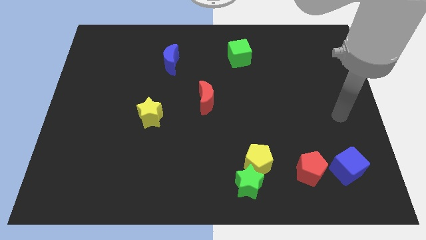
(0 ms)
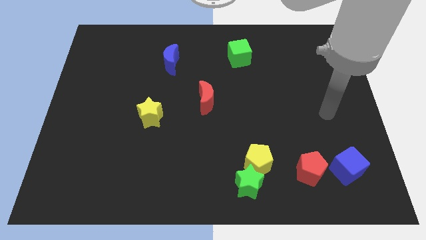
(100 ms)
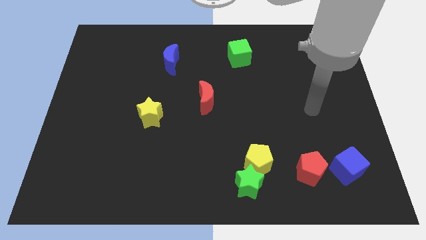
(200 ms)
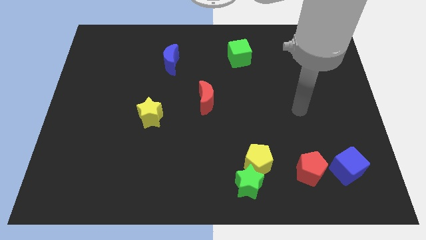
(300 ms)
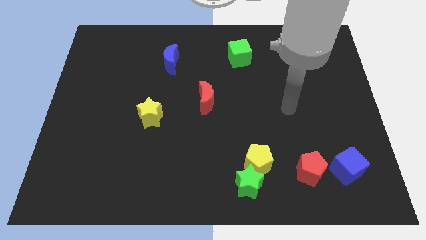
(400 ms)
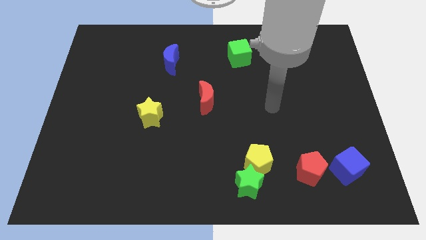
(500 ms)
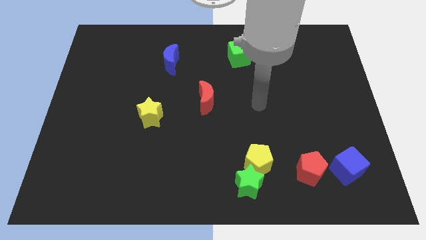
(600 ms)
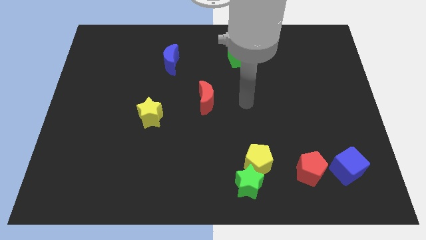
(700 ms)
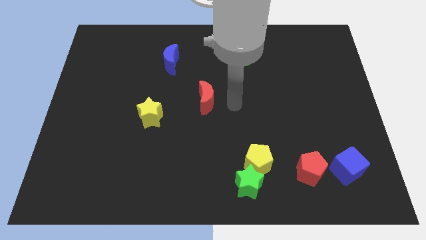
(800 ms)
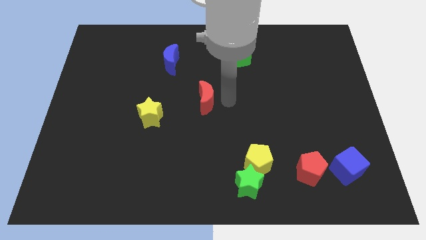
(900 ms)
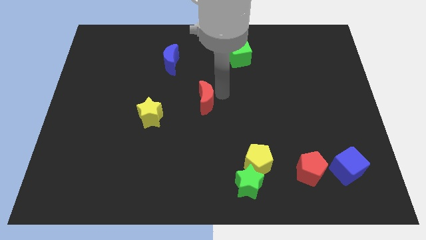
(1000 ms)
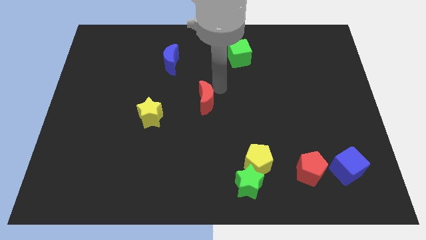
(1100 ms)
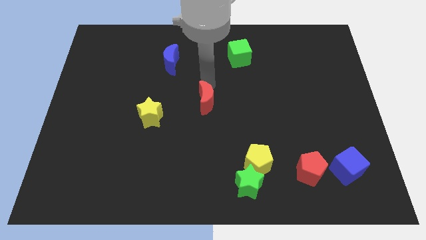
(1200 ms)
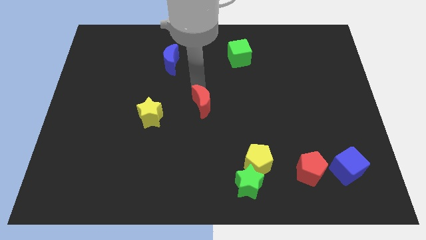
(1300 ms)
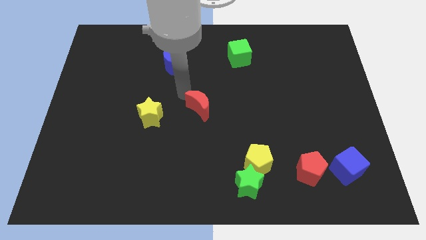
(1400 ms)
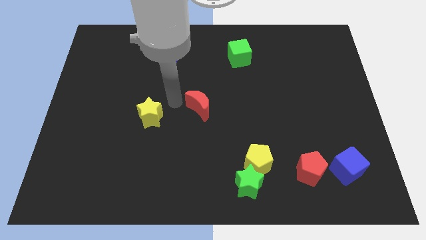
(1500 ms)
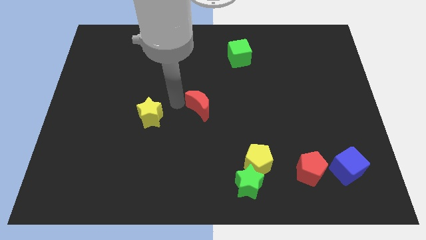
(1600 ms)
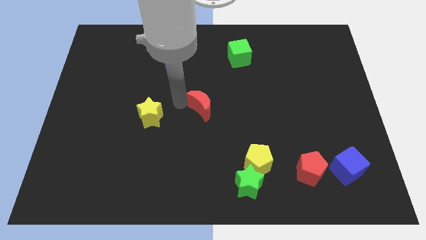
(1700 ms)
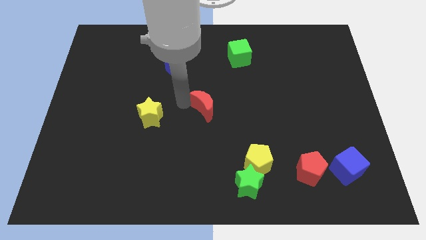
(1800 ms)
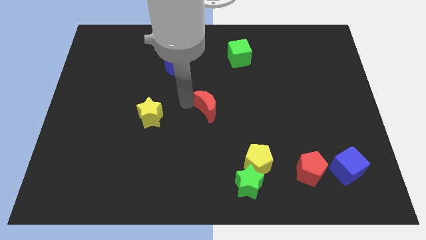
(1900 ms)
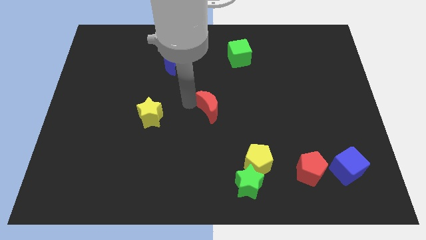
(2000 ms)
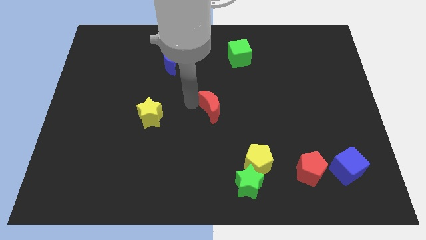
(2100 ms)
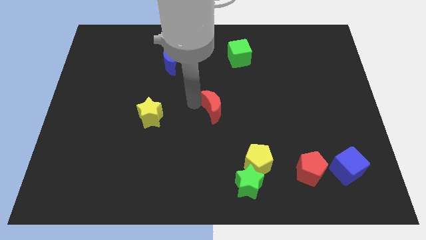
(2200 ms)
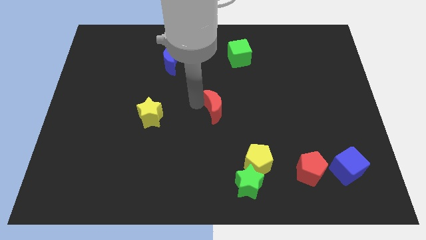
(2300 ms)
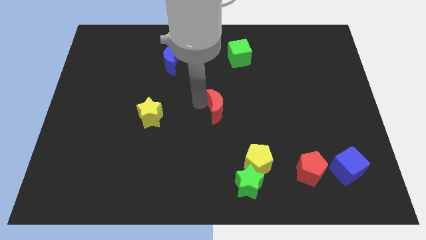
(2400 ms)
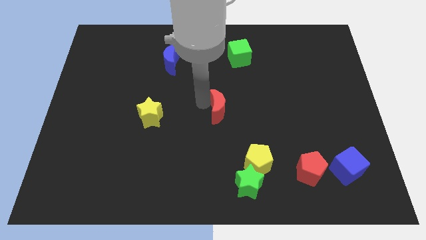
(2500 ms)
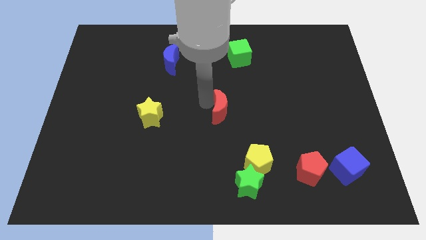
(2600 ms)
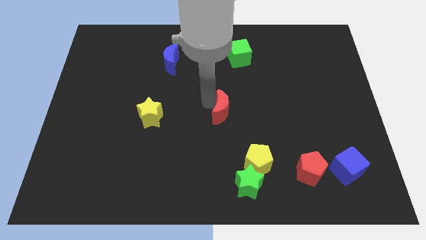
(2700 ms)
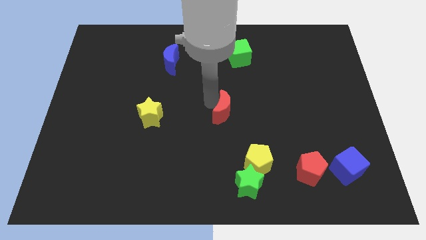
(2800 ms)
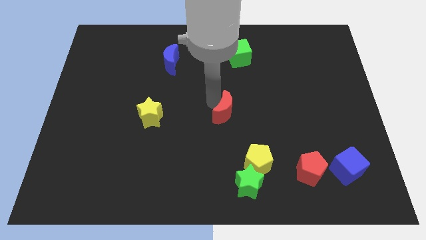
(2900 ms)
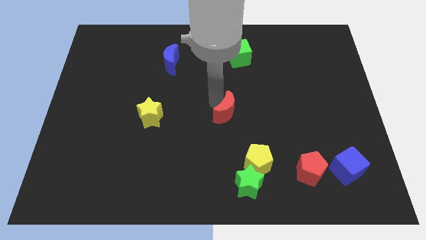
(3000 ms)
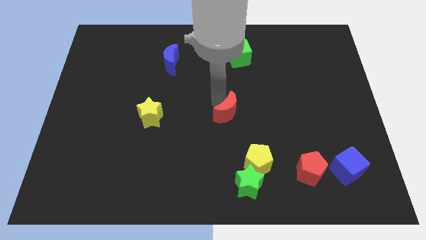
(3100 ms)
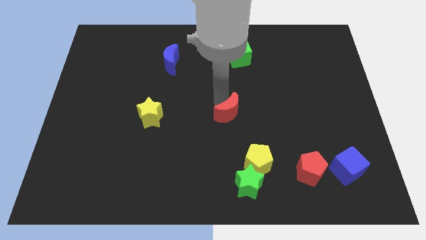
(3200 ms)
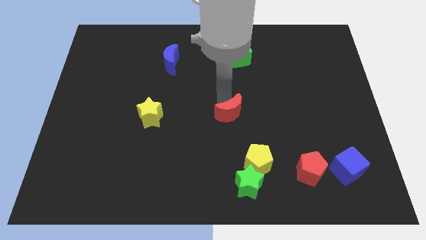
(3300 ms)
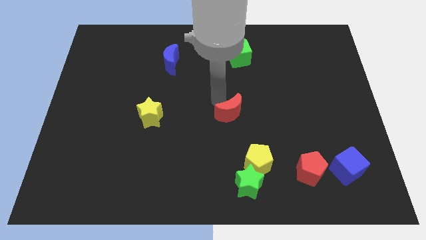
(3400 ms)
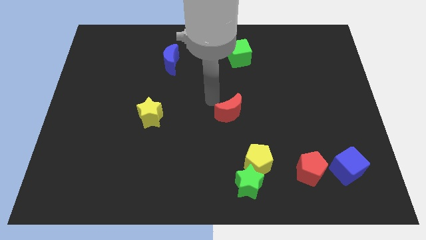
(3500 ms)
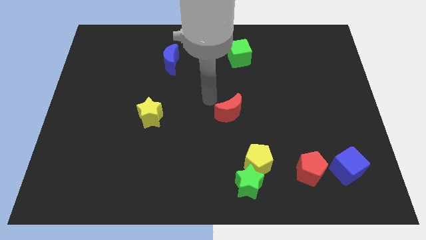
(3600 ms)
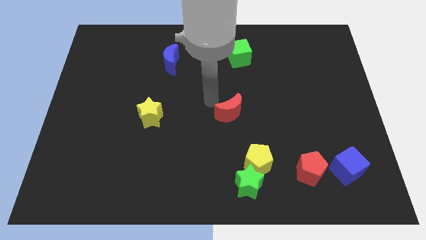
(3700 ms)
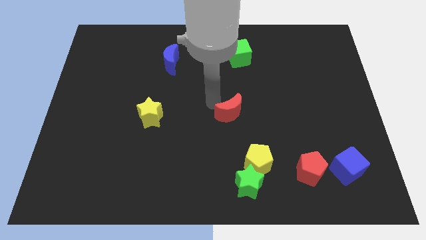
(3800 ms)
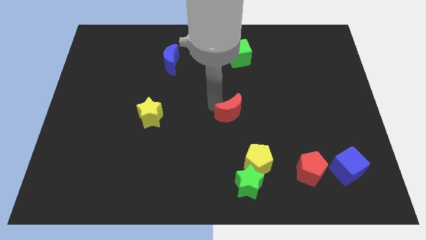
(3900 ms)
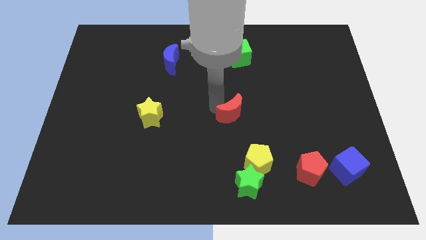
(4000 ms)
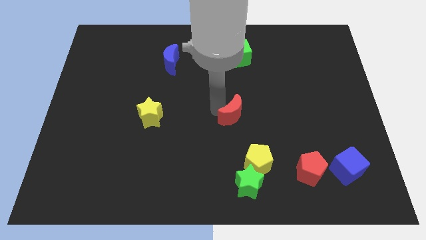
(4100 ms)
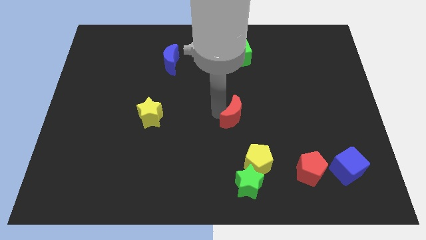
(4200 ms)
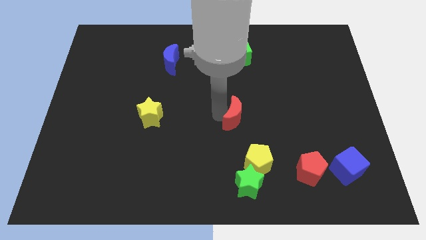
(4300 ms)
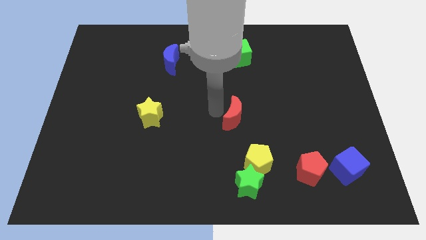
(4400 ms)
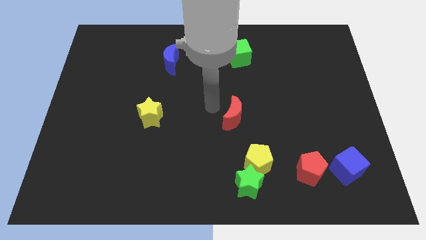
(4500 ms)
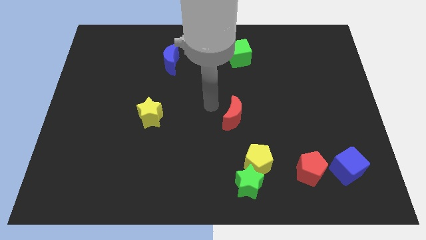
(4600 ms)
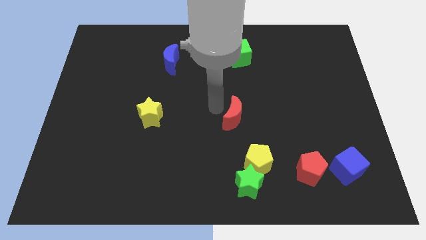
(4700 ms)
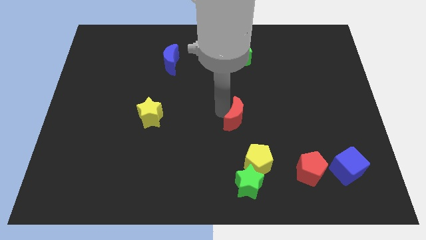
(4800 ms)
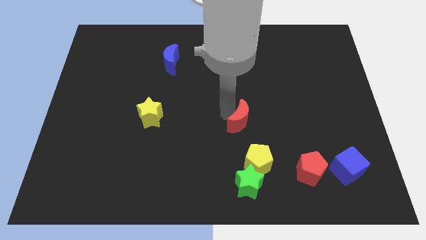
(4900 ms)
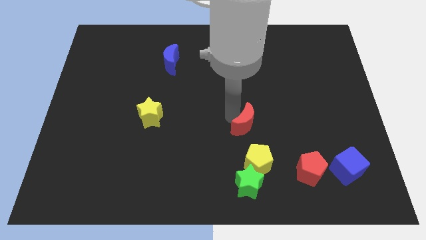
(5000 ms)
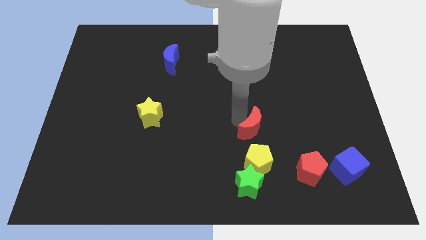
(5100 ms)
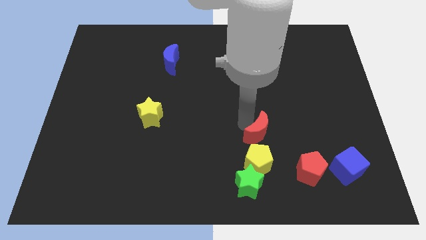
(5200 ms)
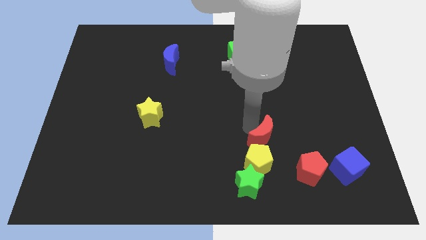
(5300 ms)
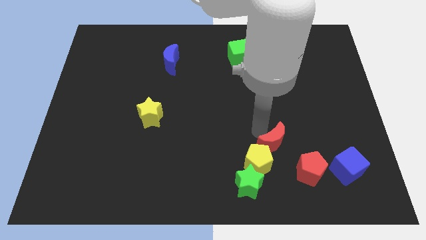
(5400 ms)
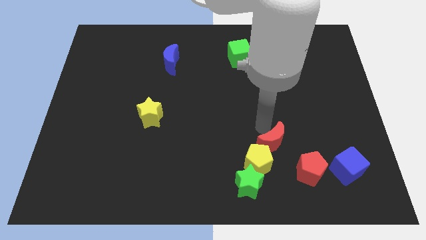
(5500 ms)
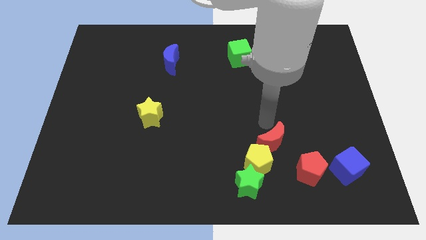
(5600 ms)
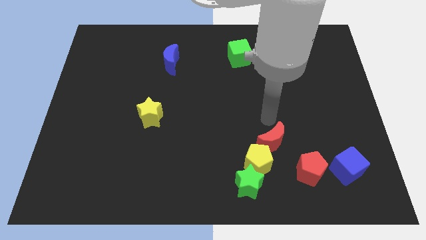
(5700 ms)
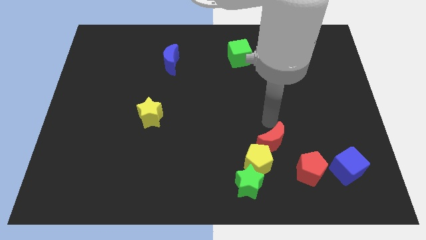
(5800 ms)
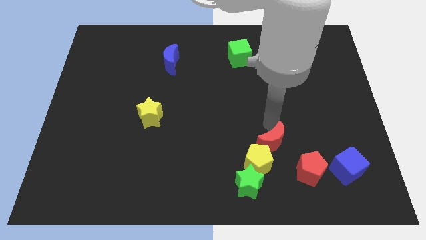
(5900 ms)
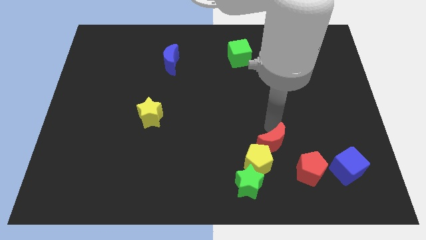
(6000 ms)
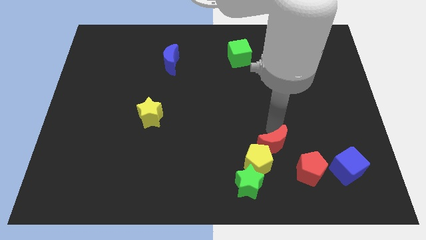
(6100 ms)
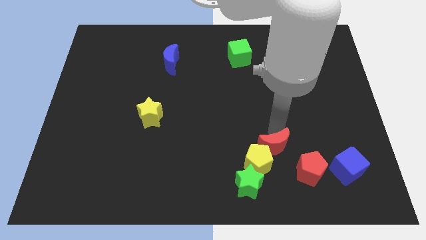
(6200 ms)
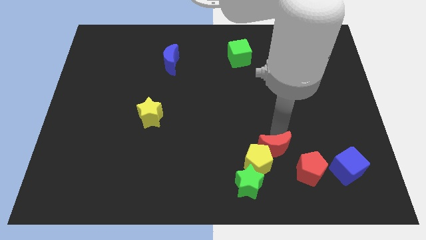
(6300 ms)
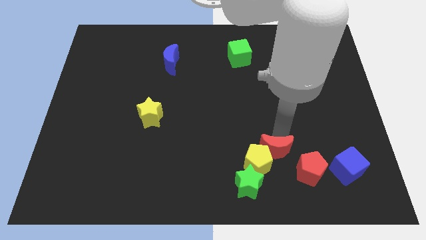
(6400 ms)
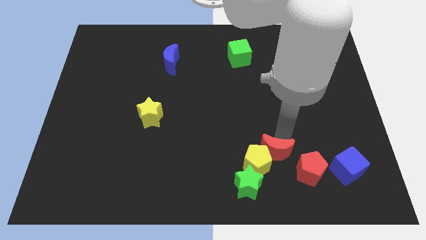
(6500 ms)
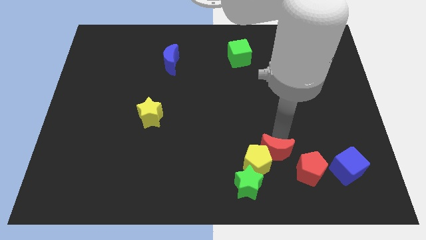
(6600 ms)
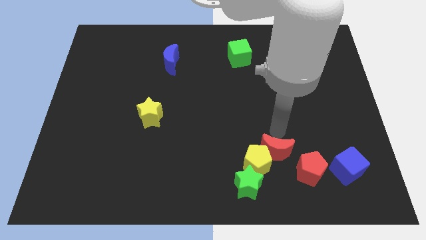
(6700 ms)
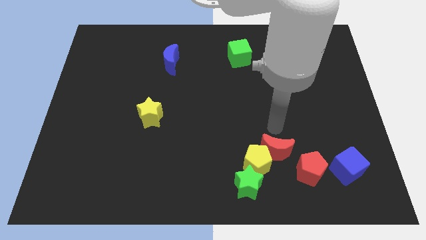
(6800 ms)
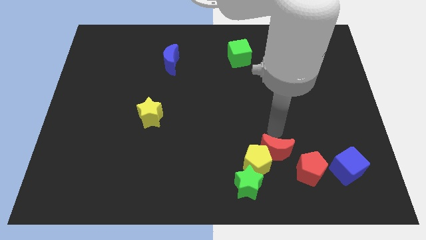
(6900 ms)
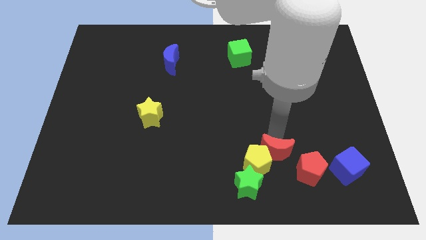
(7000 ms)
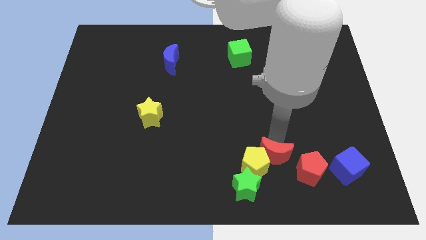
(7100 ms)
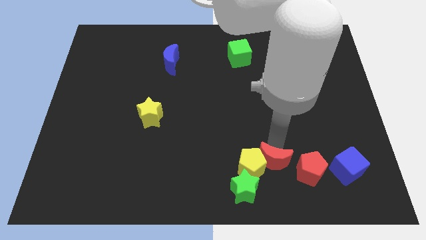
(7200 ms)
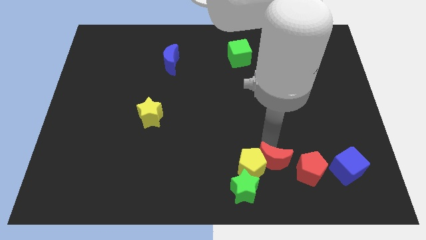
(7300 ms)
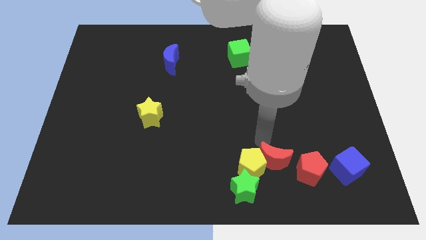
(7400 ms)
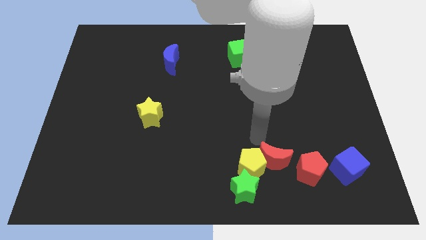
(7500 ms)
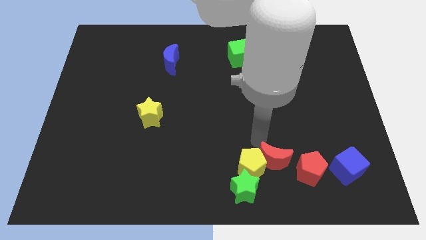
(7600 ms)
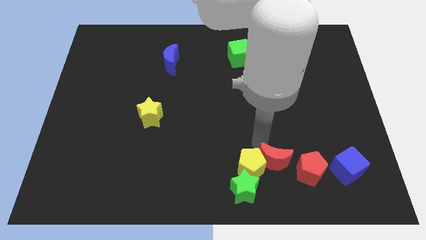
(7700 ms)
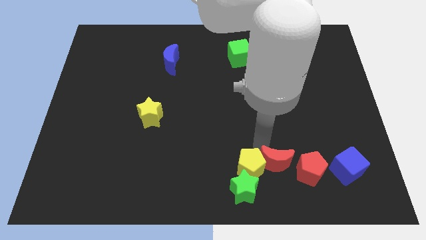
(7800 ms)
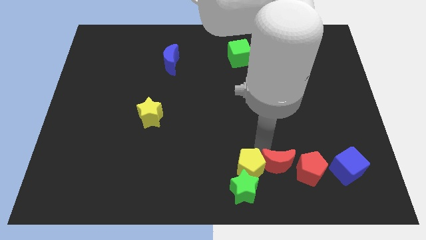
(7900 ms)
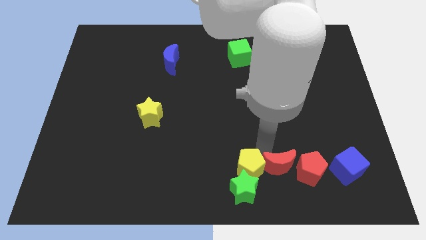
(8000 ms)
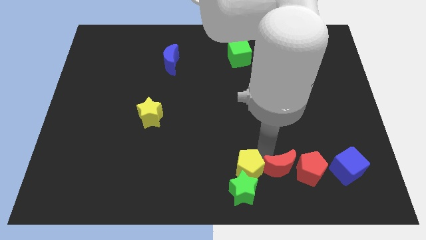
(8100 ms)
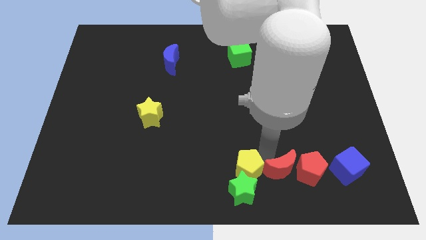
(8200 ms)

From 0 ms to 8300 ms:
push the red moon to the right of the green star
